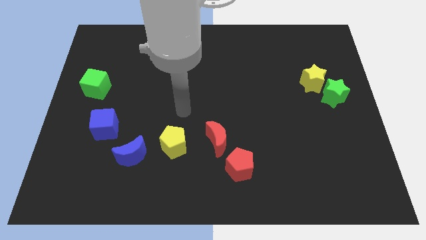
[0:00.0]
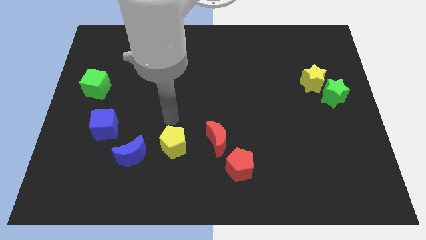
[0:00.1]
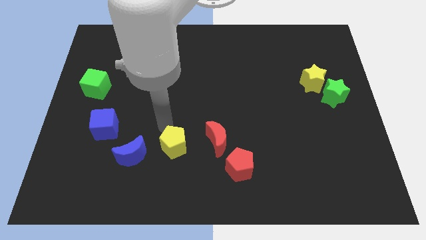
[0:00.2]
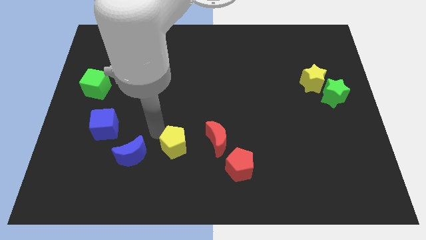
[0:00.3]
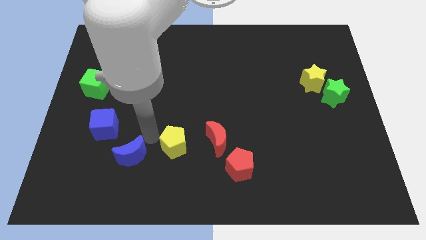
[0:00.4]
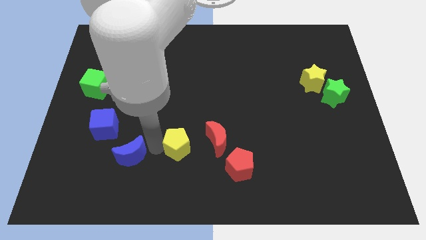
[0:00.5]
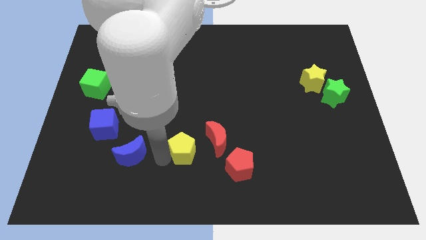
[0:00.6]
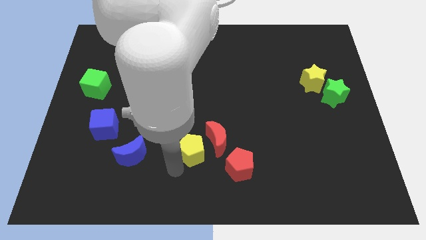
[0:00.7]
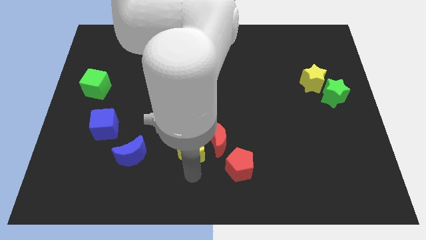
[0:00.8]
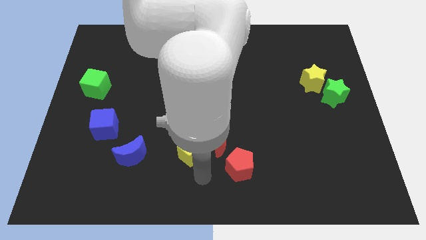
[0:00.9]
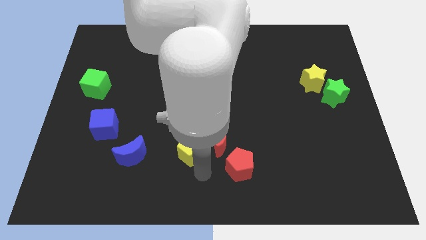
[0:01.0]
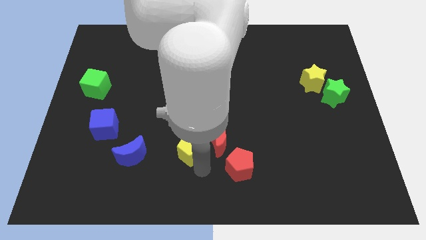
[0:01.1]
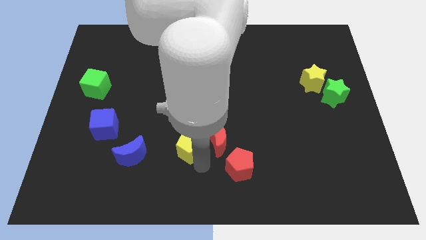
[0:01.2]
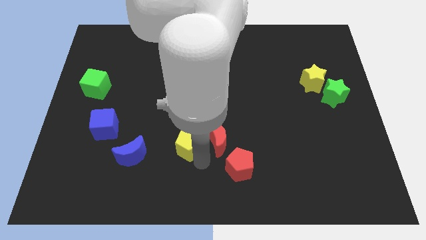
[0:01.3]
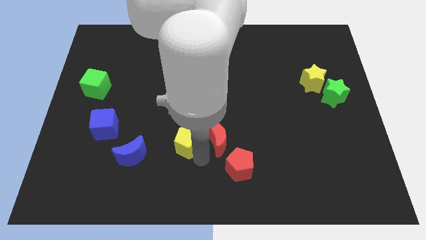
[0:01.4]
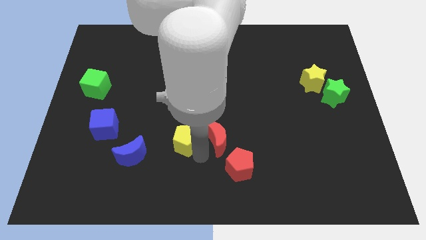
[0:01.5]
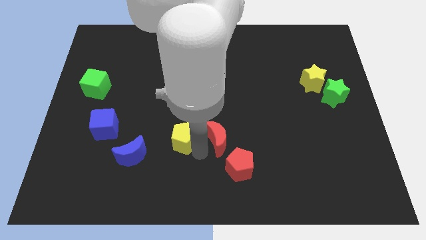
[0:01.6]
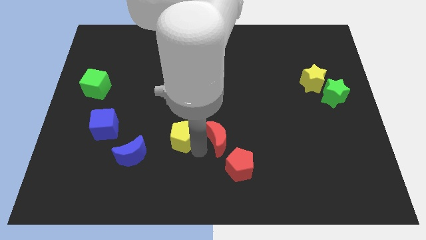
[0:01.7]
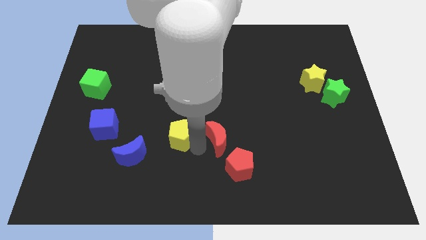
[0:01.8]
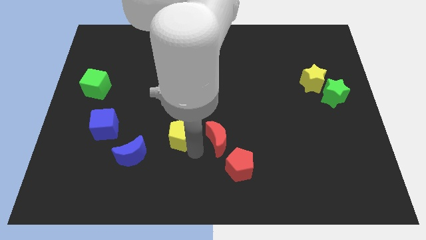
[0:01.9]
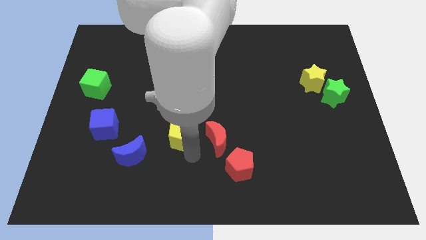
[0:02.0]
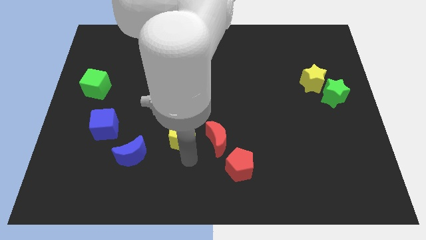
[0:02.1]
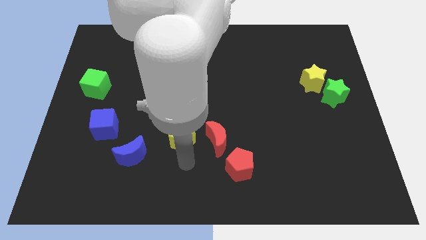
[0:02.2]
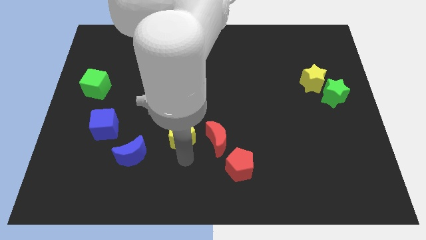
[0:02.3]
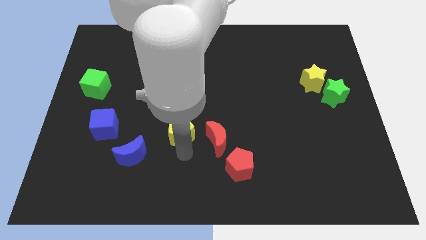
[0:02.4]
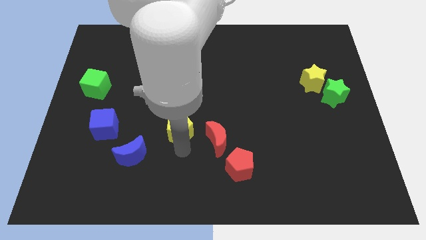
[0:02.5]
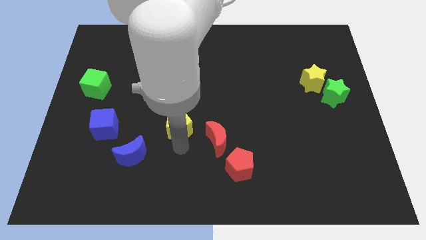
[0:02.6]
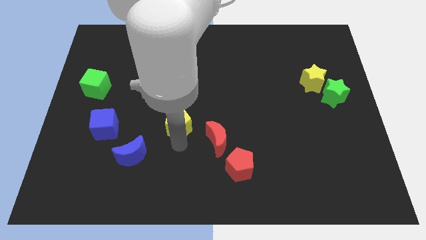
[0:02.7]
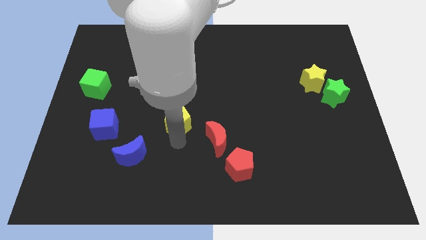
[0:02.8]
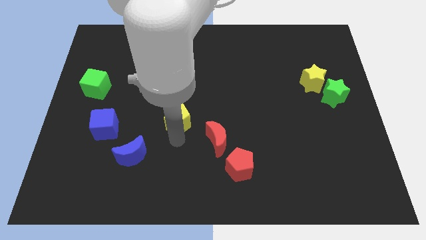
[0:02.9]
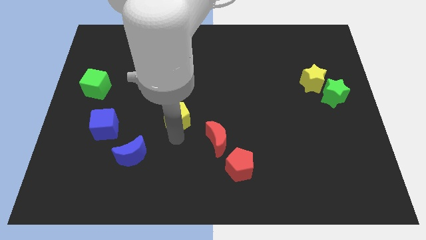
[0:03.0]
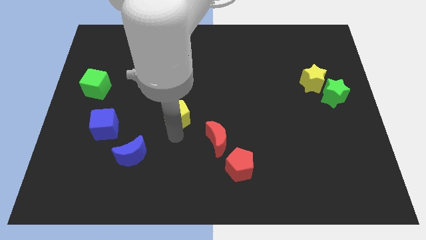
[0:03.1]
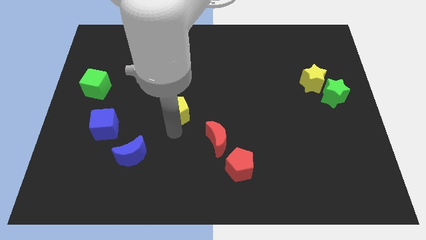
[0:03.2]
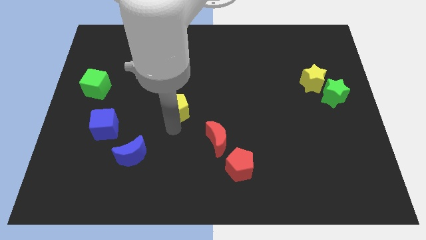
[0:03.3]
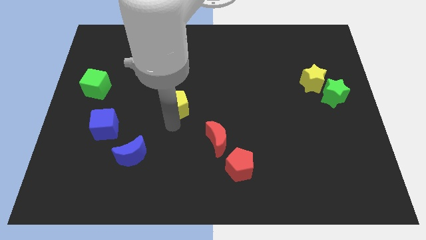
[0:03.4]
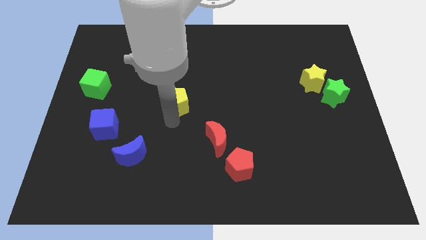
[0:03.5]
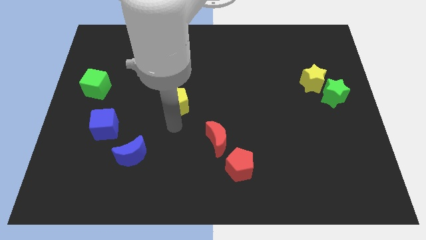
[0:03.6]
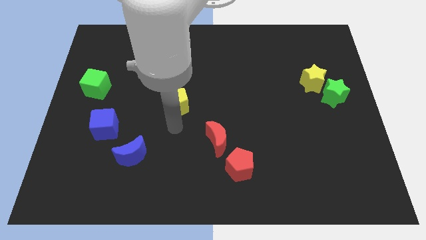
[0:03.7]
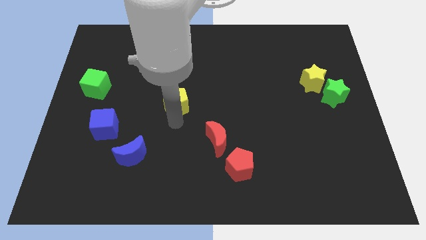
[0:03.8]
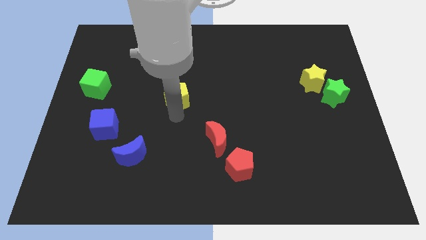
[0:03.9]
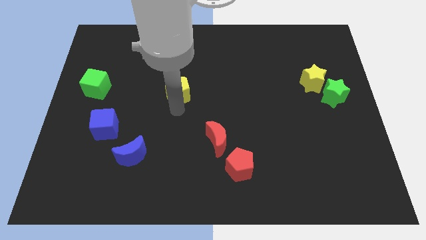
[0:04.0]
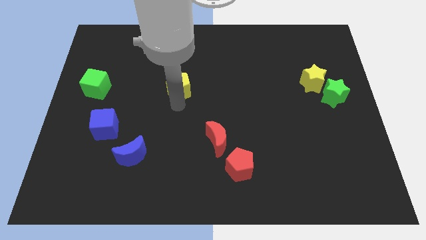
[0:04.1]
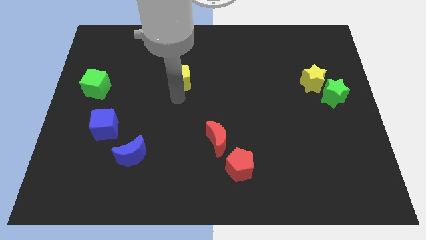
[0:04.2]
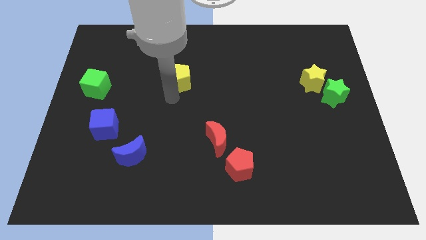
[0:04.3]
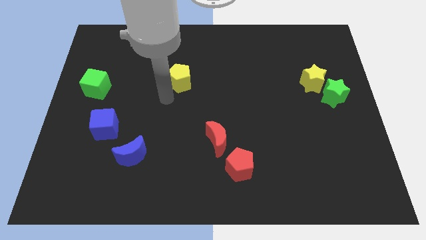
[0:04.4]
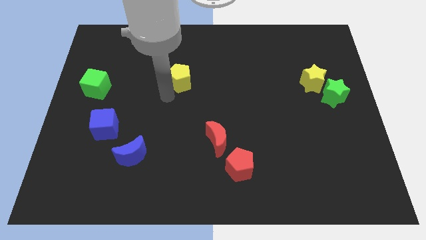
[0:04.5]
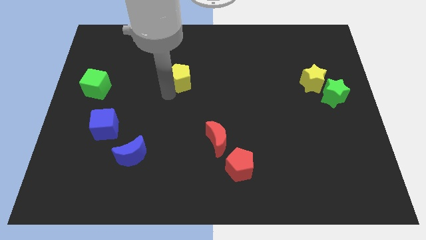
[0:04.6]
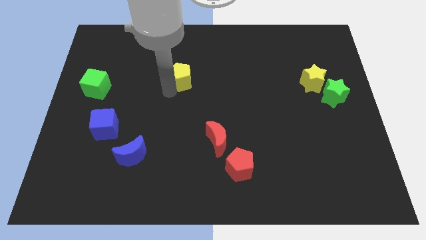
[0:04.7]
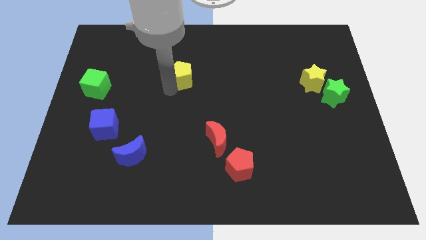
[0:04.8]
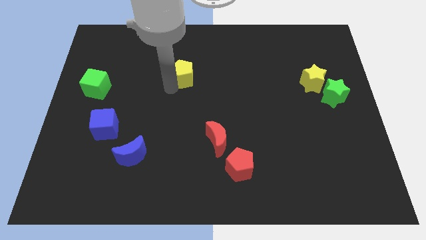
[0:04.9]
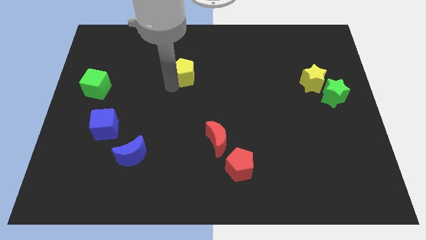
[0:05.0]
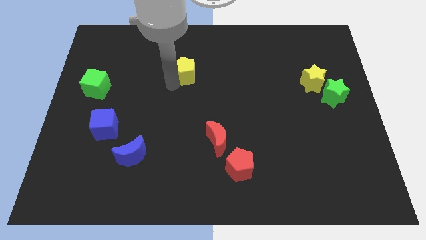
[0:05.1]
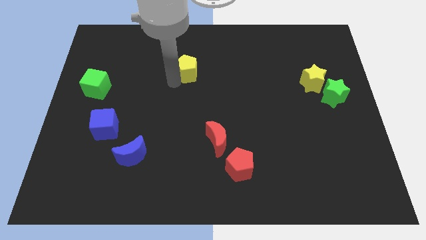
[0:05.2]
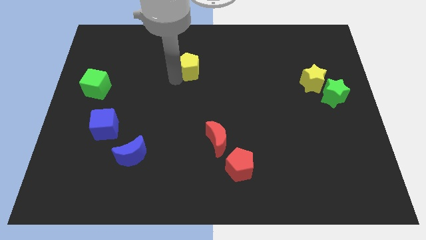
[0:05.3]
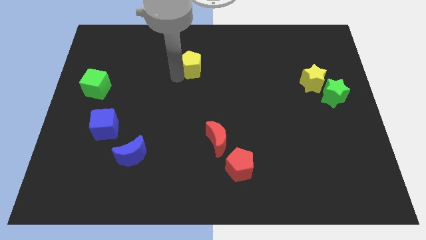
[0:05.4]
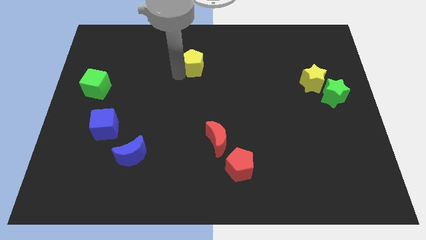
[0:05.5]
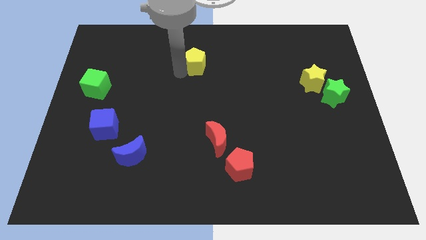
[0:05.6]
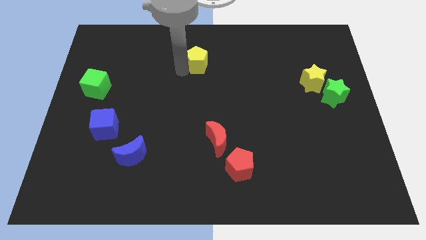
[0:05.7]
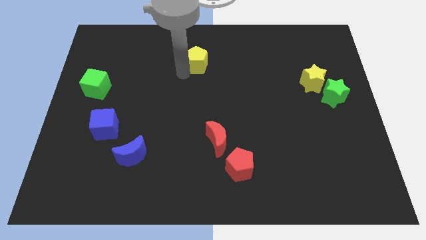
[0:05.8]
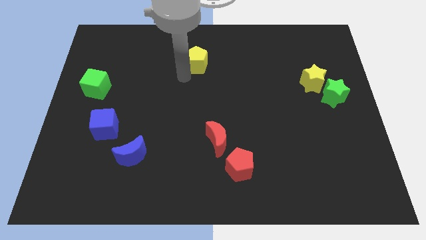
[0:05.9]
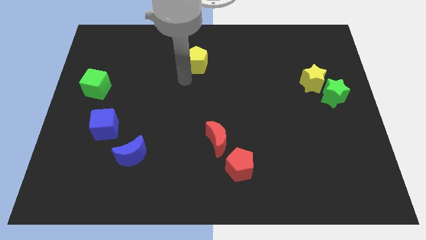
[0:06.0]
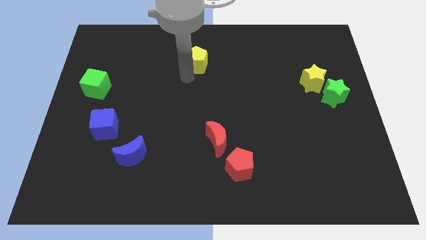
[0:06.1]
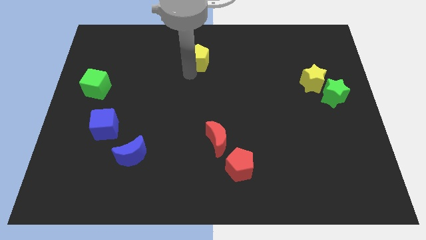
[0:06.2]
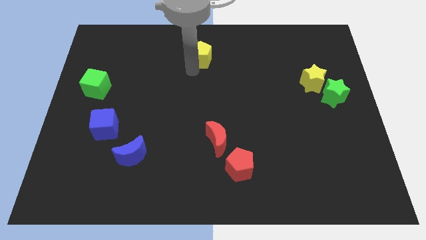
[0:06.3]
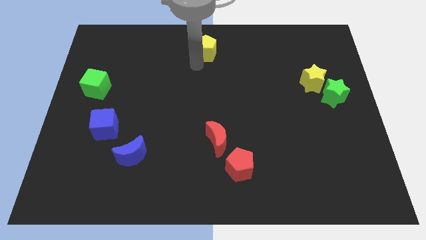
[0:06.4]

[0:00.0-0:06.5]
put the yellow pentagon to the top

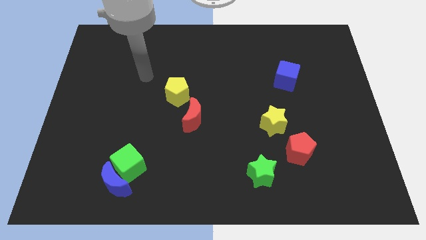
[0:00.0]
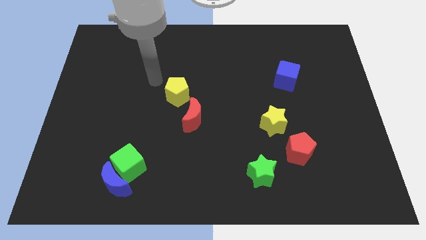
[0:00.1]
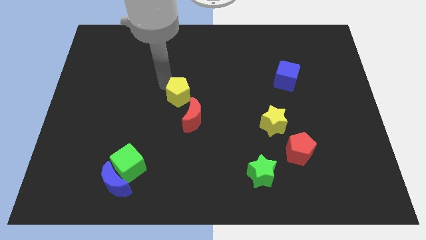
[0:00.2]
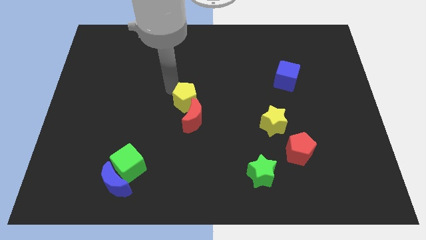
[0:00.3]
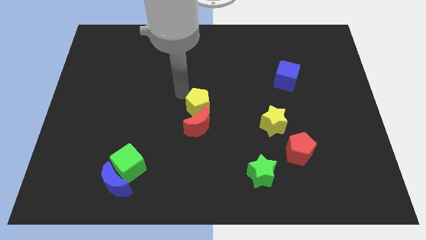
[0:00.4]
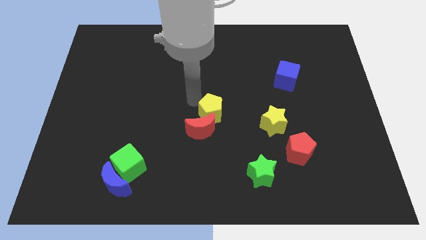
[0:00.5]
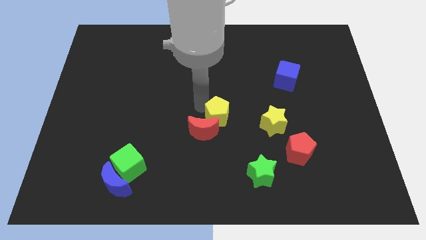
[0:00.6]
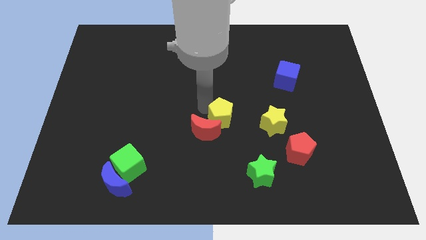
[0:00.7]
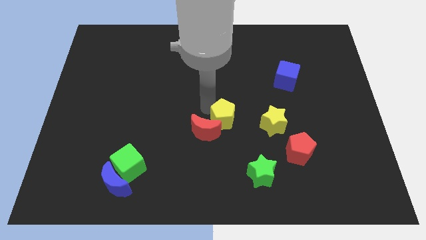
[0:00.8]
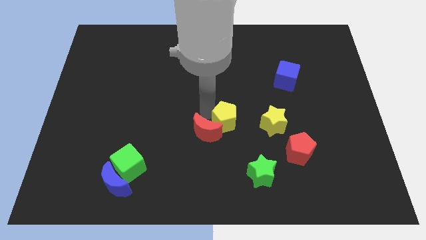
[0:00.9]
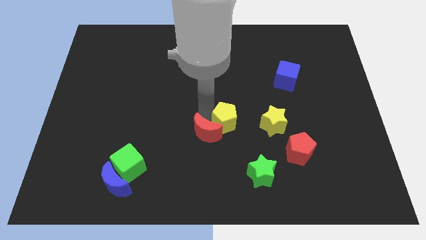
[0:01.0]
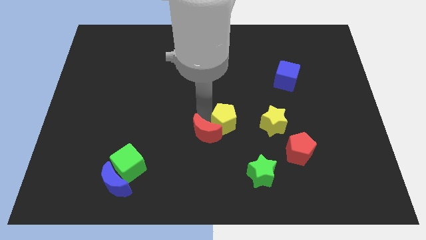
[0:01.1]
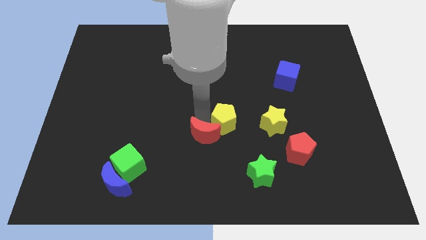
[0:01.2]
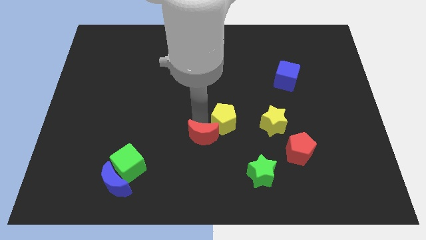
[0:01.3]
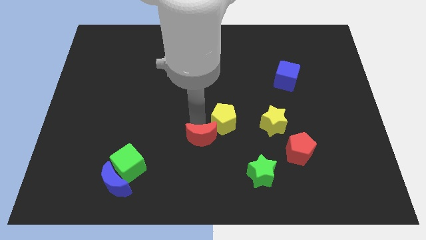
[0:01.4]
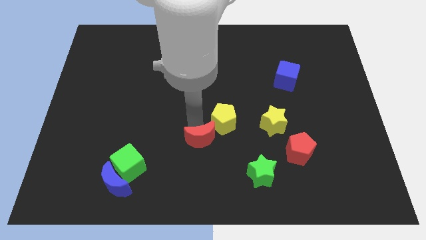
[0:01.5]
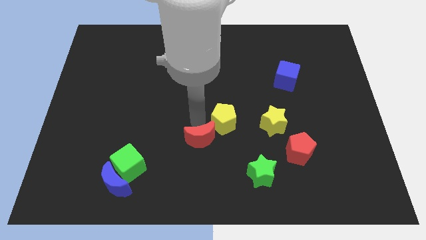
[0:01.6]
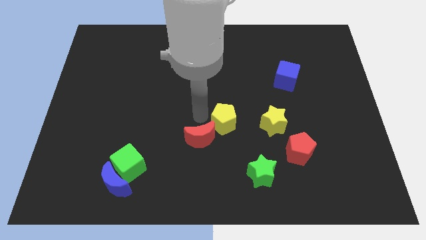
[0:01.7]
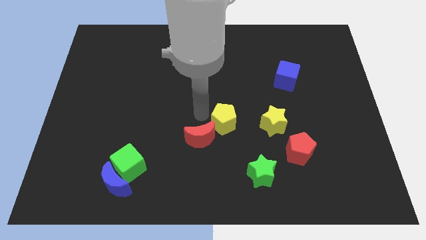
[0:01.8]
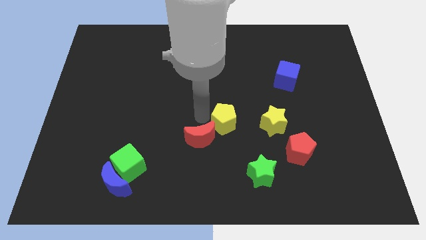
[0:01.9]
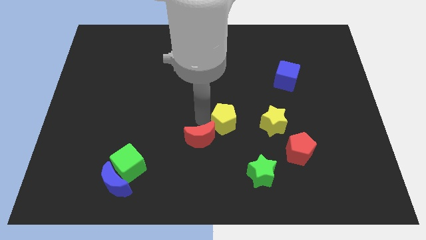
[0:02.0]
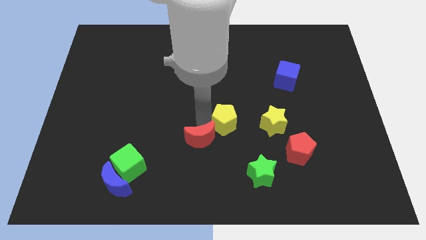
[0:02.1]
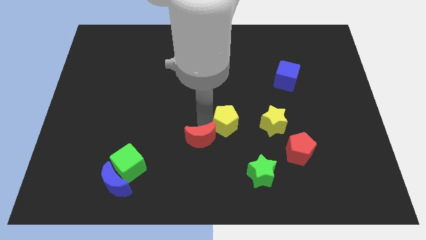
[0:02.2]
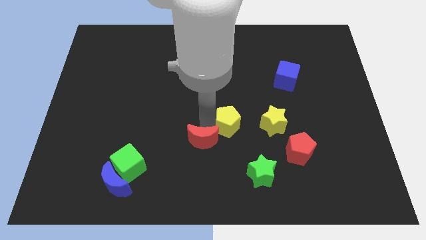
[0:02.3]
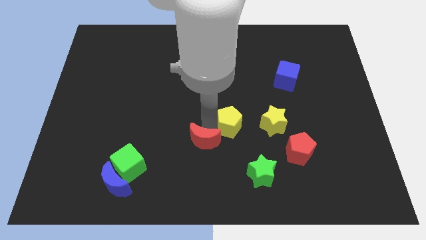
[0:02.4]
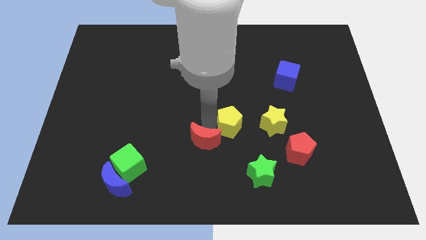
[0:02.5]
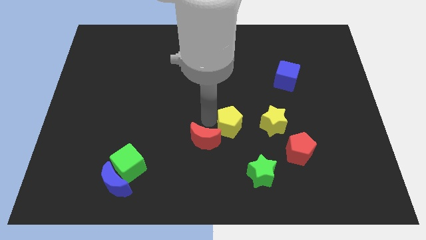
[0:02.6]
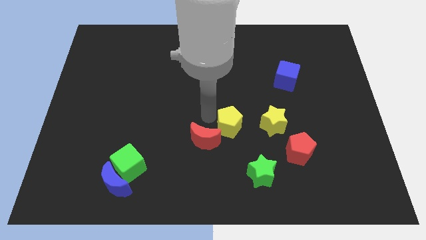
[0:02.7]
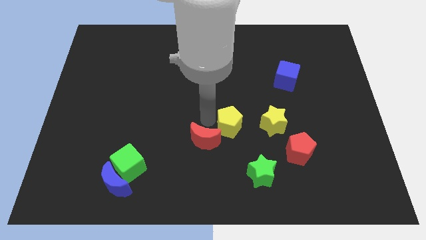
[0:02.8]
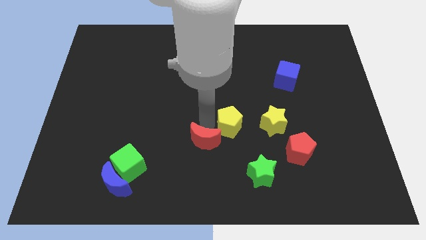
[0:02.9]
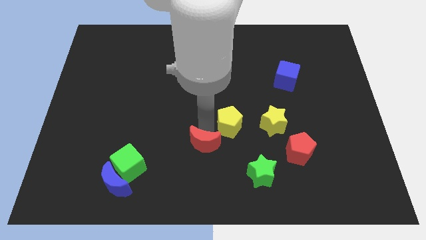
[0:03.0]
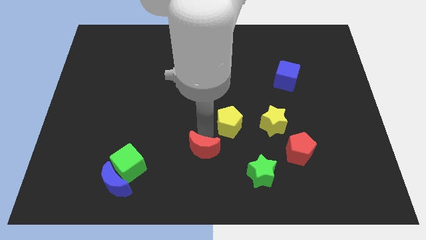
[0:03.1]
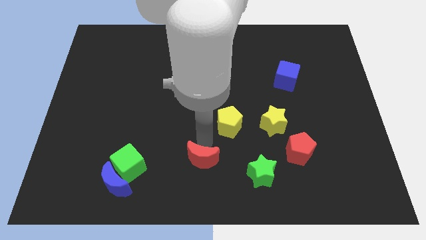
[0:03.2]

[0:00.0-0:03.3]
put the red moon to the bottom side
